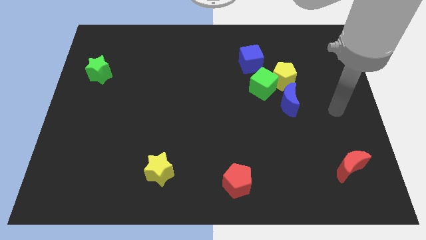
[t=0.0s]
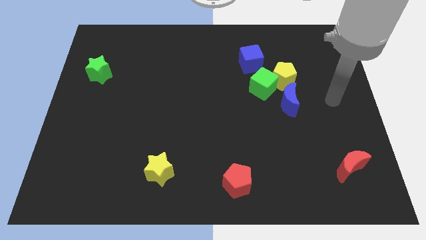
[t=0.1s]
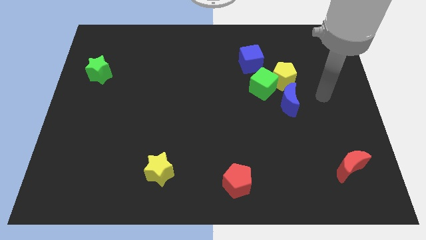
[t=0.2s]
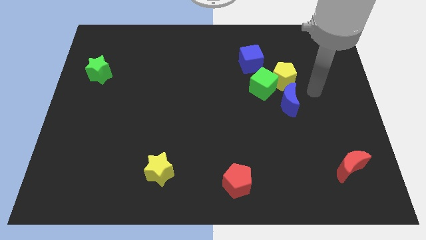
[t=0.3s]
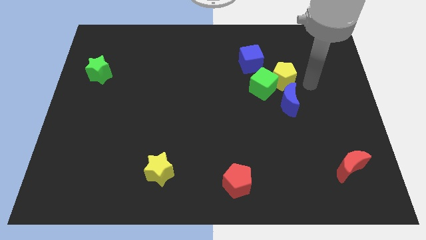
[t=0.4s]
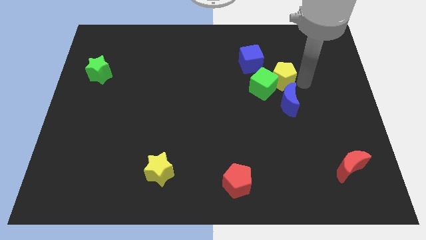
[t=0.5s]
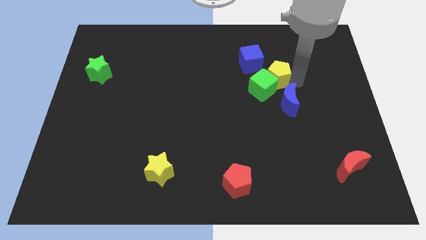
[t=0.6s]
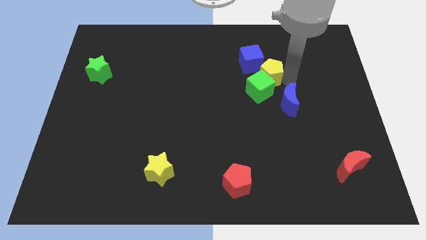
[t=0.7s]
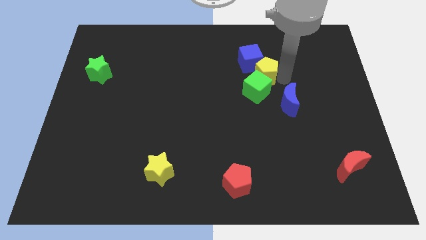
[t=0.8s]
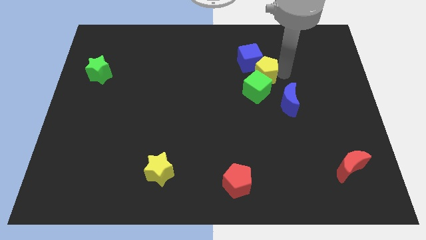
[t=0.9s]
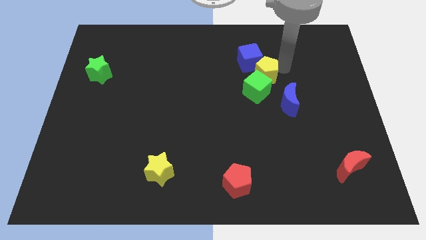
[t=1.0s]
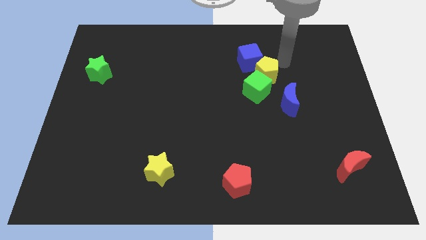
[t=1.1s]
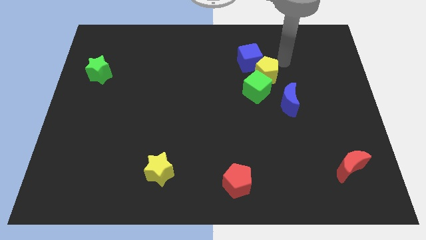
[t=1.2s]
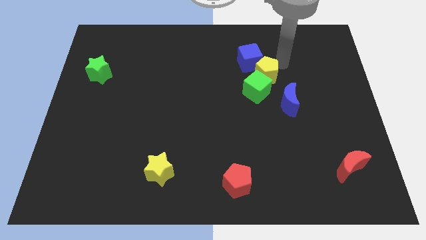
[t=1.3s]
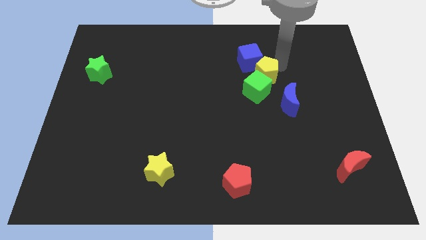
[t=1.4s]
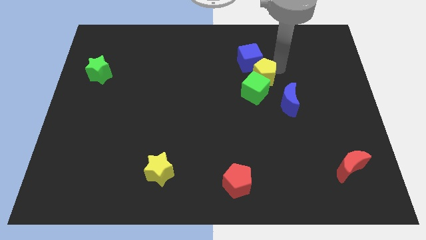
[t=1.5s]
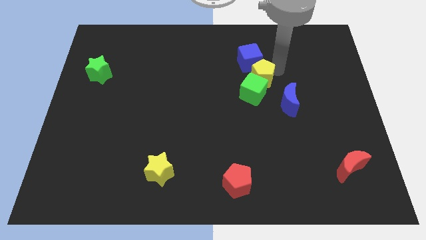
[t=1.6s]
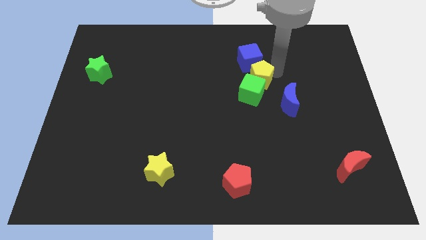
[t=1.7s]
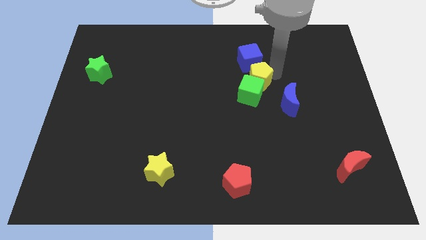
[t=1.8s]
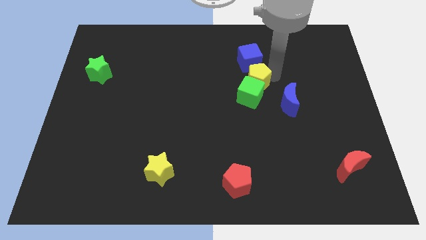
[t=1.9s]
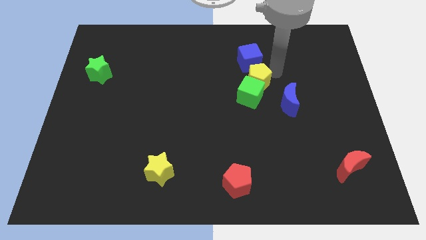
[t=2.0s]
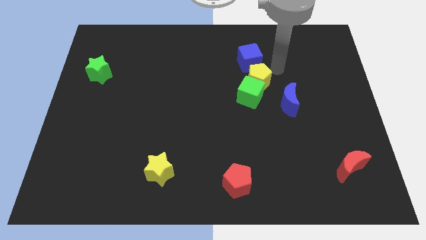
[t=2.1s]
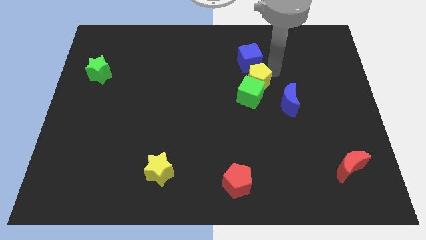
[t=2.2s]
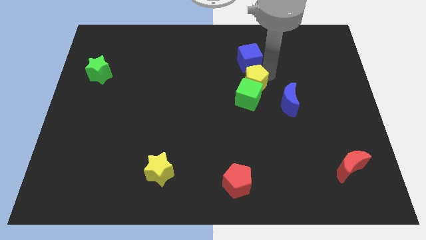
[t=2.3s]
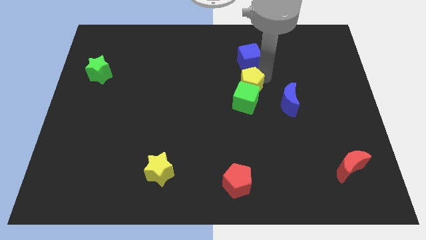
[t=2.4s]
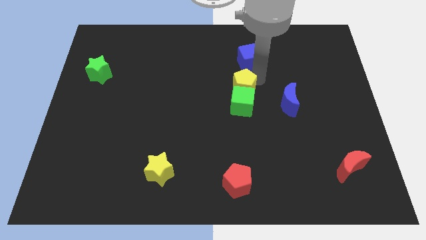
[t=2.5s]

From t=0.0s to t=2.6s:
move the yellow pentagon slightly down and then left

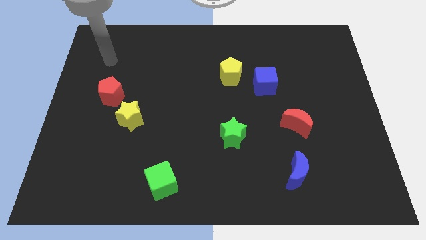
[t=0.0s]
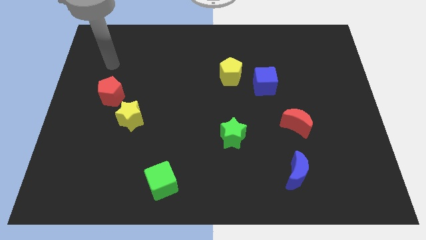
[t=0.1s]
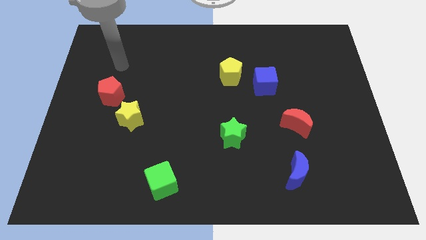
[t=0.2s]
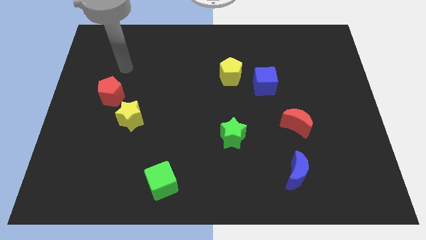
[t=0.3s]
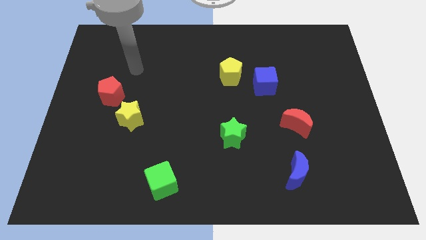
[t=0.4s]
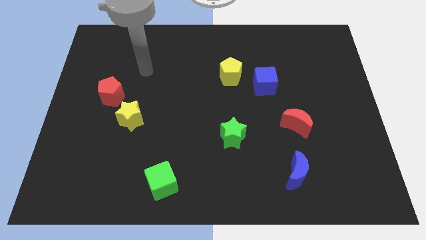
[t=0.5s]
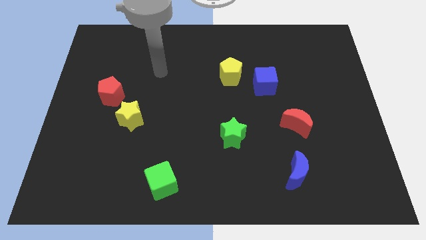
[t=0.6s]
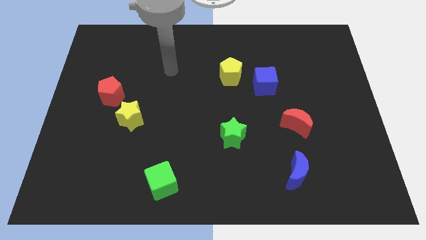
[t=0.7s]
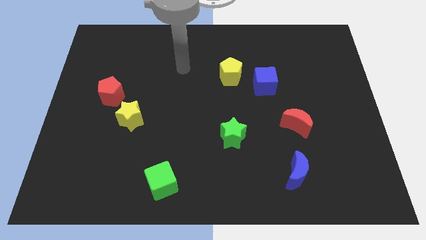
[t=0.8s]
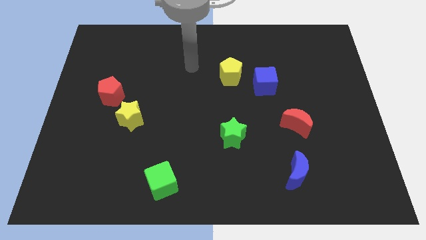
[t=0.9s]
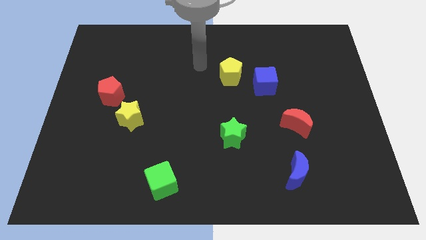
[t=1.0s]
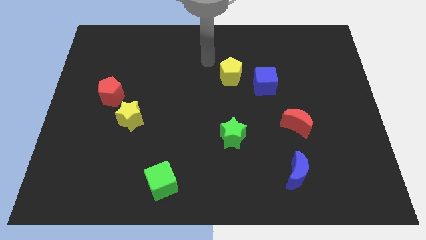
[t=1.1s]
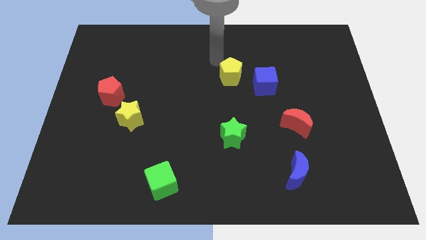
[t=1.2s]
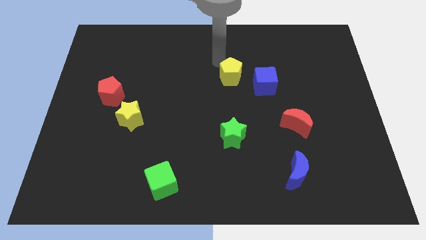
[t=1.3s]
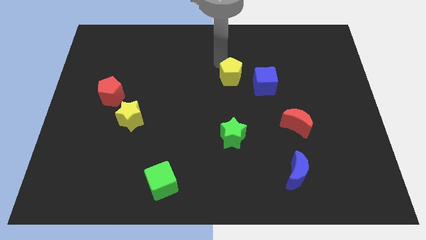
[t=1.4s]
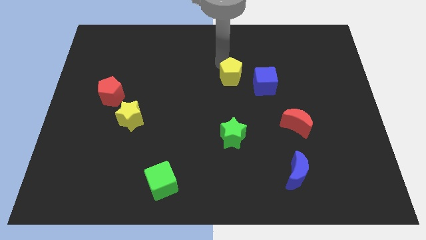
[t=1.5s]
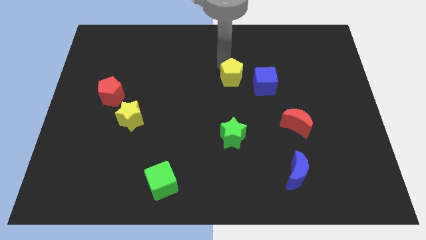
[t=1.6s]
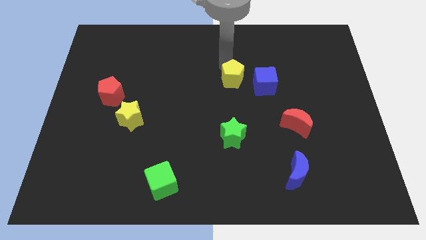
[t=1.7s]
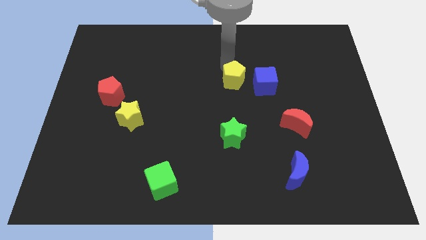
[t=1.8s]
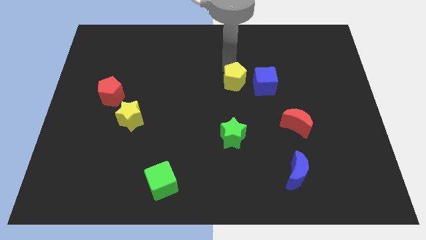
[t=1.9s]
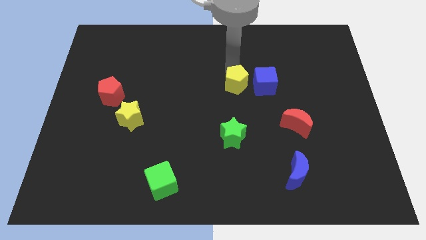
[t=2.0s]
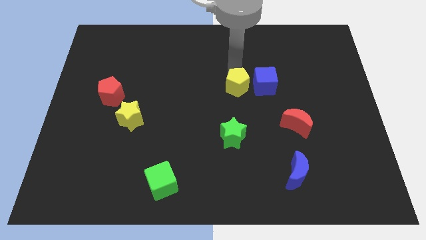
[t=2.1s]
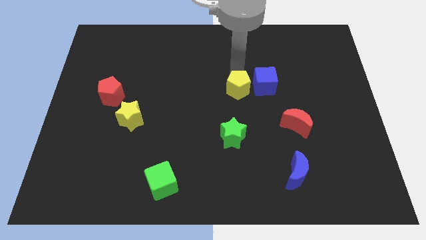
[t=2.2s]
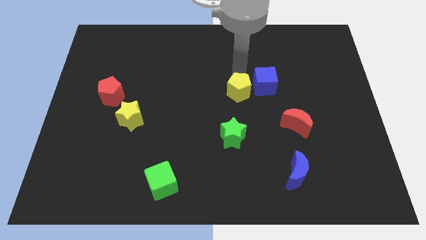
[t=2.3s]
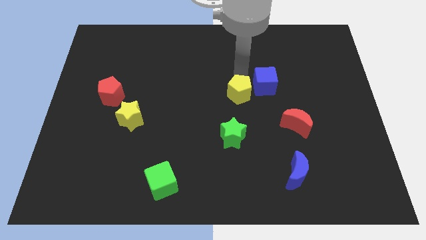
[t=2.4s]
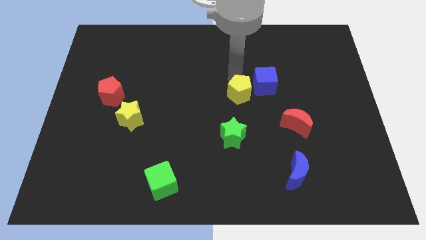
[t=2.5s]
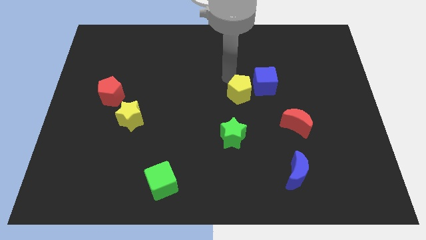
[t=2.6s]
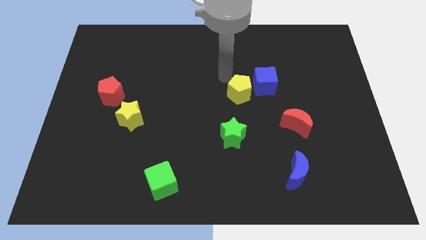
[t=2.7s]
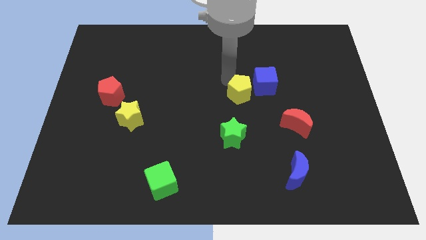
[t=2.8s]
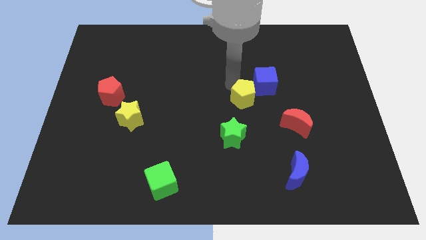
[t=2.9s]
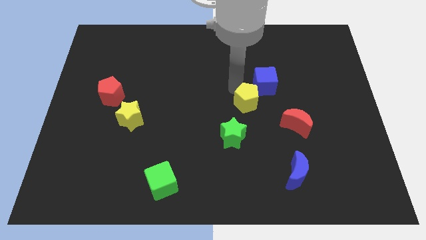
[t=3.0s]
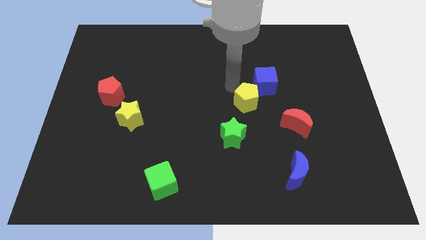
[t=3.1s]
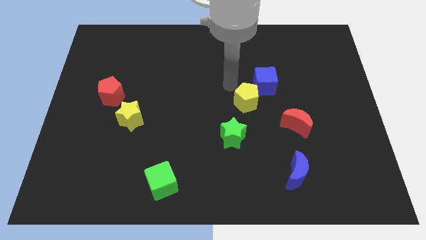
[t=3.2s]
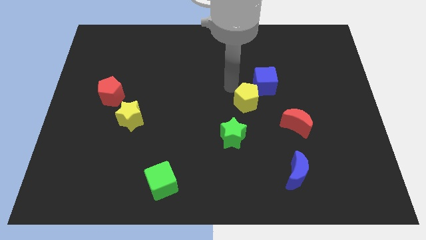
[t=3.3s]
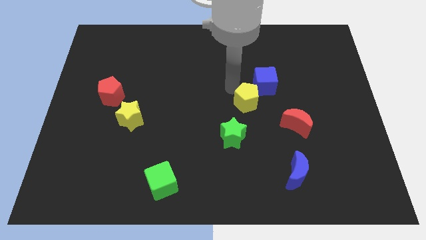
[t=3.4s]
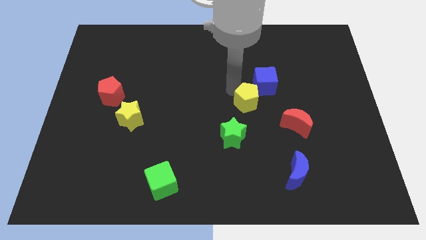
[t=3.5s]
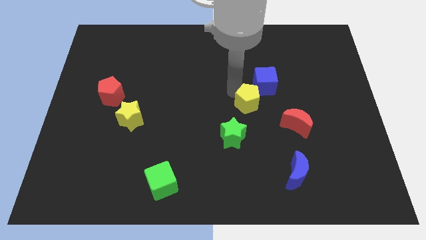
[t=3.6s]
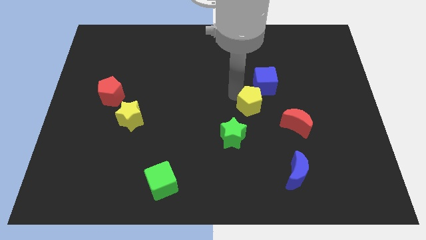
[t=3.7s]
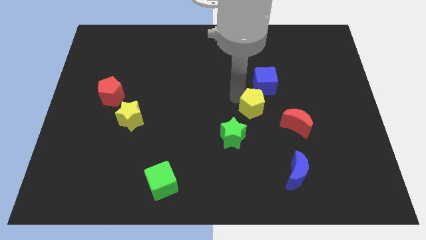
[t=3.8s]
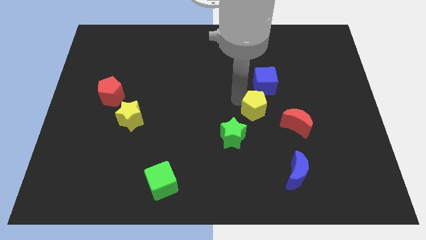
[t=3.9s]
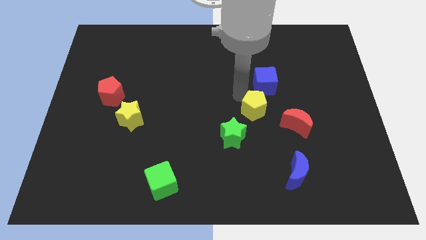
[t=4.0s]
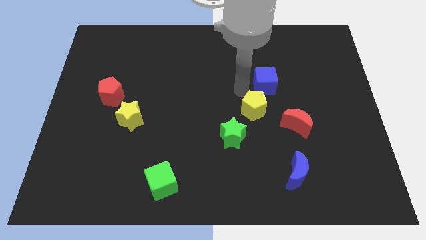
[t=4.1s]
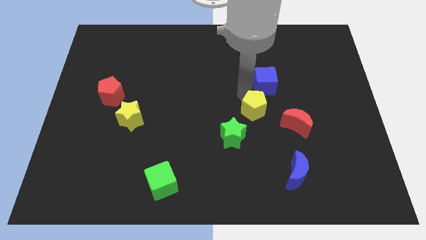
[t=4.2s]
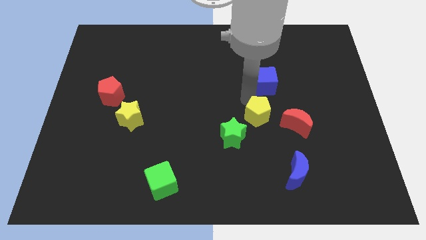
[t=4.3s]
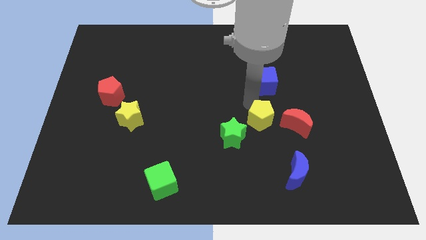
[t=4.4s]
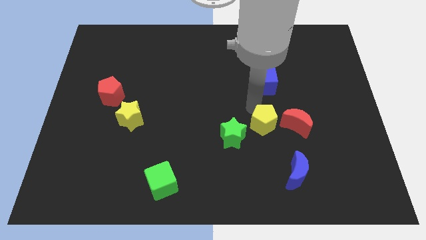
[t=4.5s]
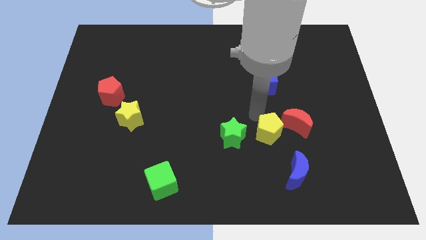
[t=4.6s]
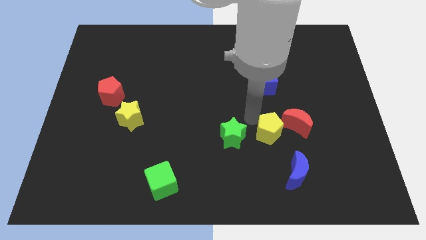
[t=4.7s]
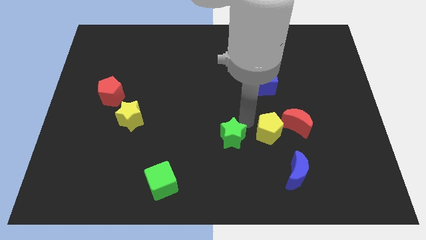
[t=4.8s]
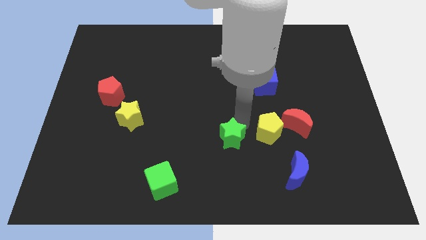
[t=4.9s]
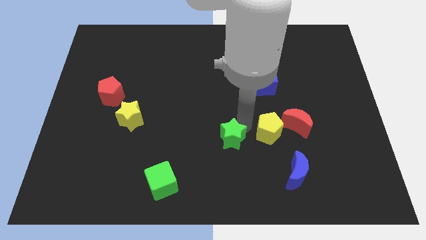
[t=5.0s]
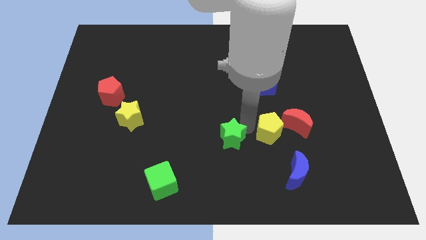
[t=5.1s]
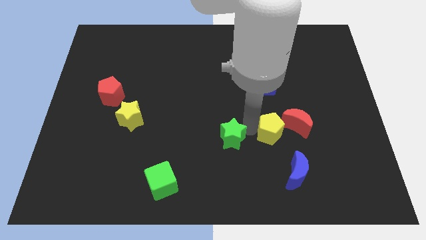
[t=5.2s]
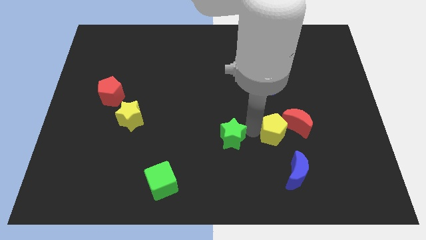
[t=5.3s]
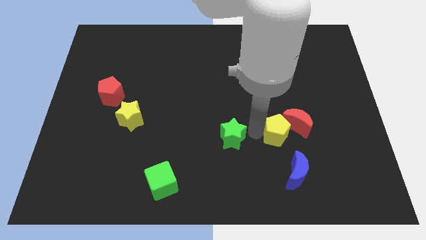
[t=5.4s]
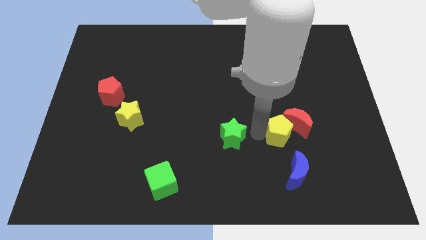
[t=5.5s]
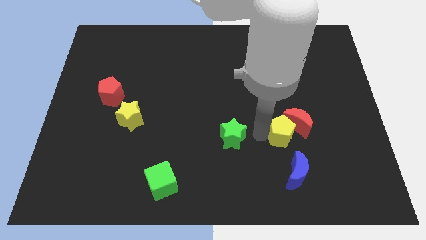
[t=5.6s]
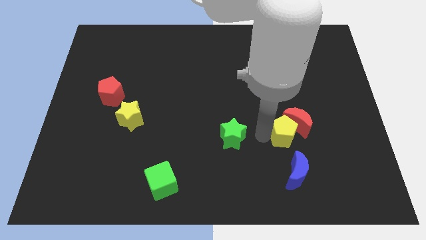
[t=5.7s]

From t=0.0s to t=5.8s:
slide the yellow pentagon down and then to the right
